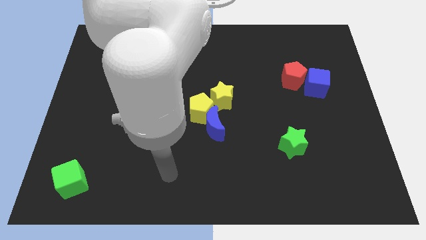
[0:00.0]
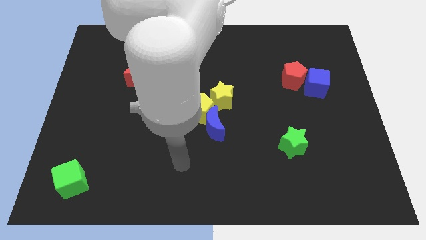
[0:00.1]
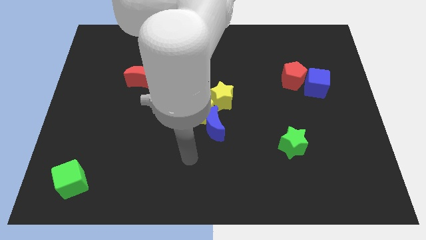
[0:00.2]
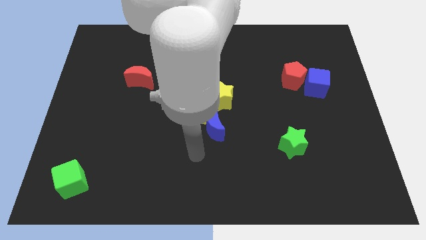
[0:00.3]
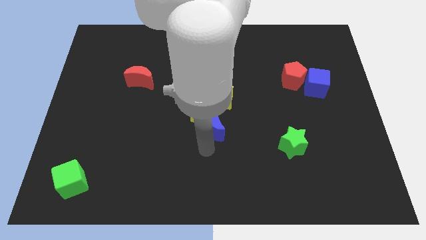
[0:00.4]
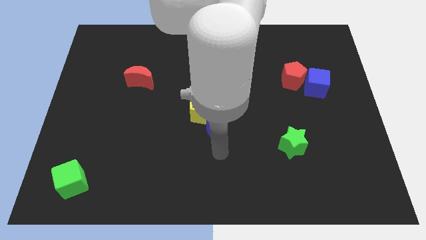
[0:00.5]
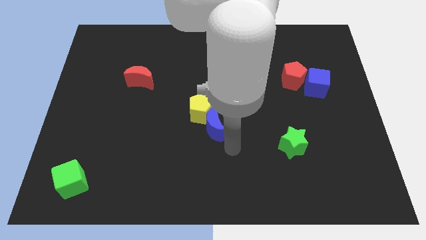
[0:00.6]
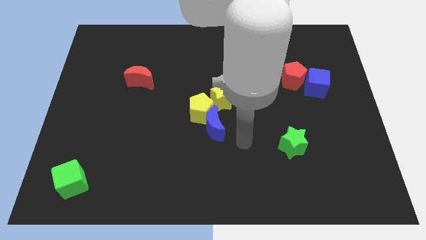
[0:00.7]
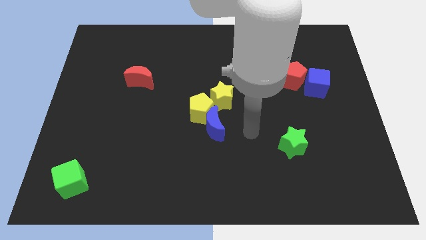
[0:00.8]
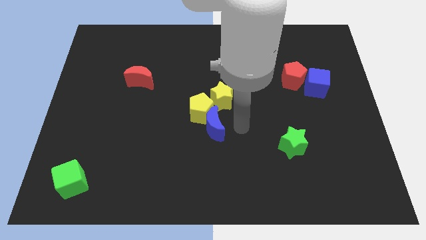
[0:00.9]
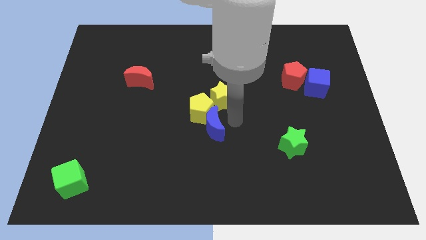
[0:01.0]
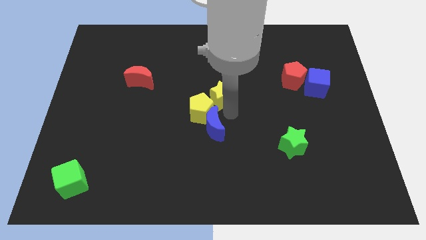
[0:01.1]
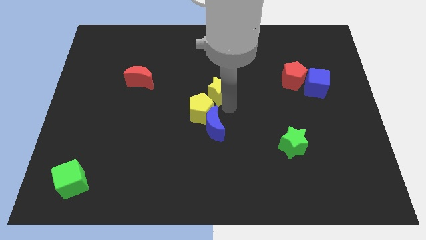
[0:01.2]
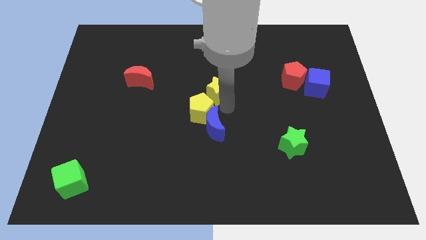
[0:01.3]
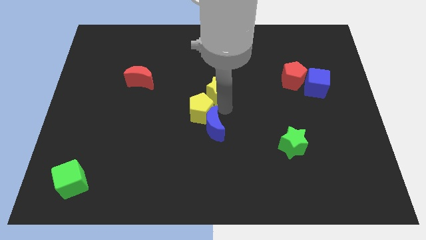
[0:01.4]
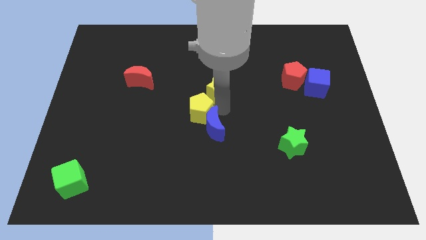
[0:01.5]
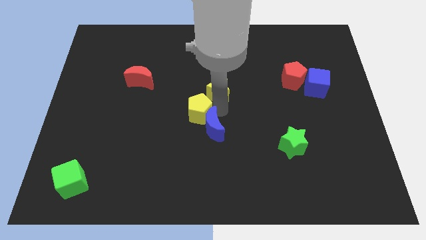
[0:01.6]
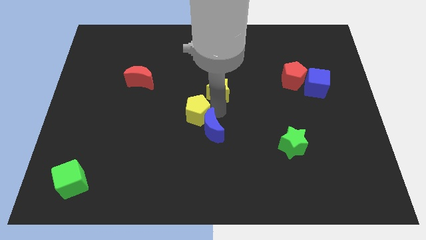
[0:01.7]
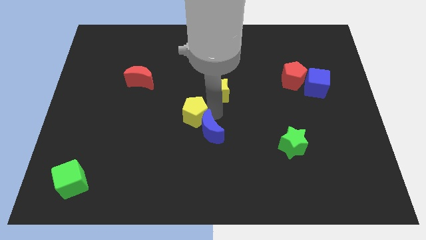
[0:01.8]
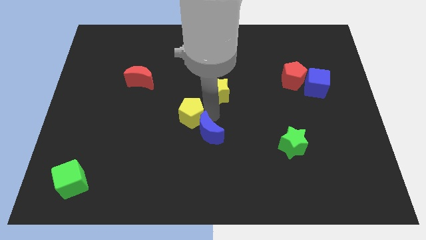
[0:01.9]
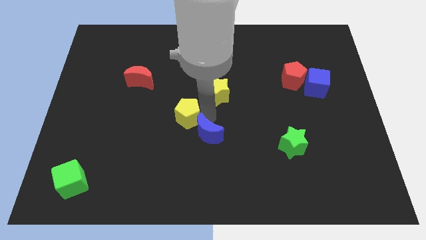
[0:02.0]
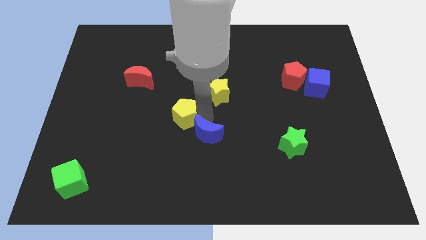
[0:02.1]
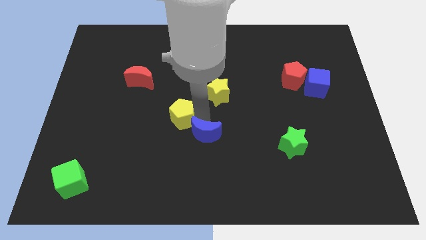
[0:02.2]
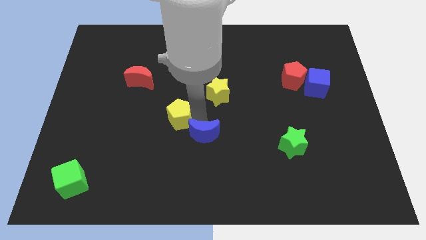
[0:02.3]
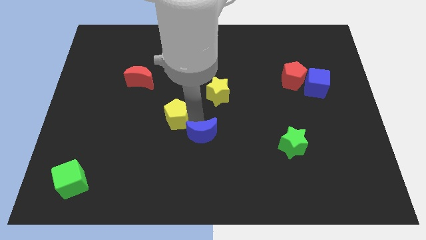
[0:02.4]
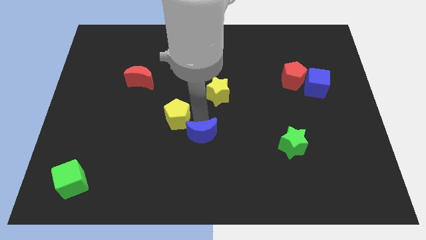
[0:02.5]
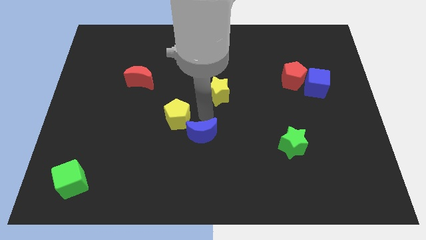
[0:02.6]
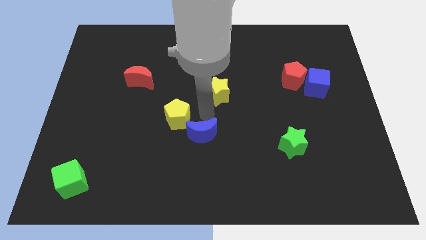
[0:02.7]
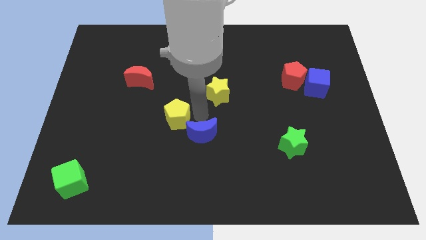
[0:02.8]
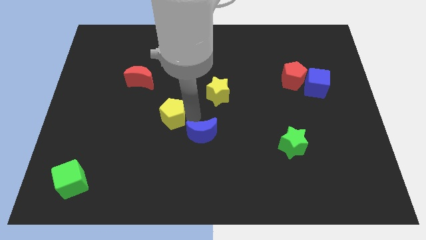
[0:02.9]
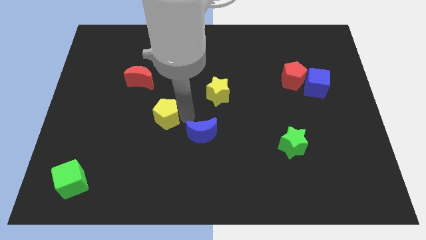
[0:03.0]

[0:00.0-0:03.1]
move the yellow pentagon away from the blue moon and yellow star

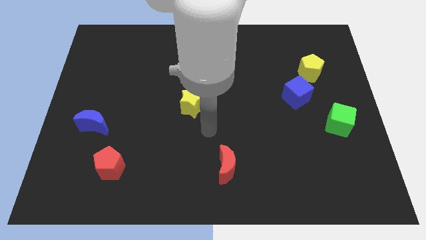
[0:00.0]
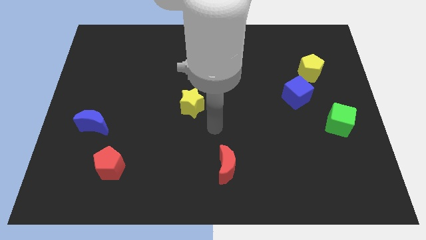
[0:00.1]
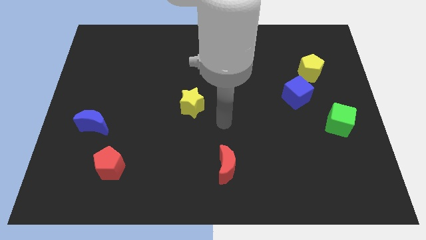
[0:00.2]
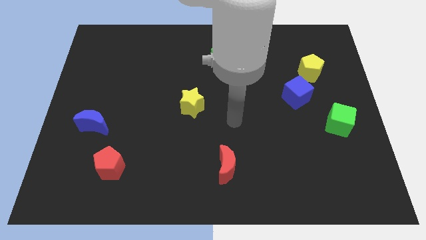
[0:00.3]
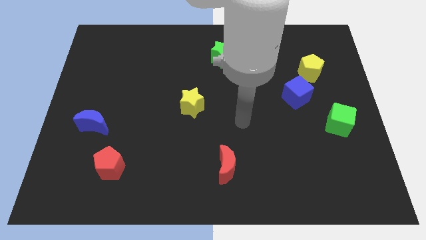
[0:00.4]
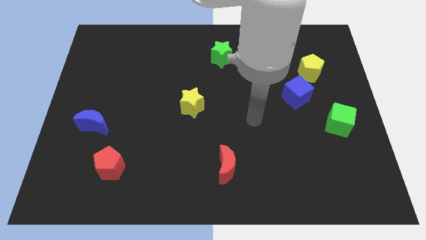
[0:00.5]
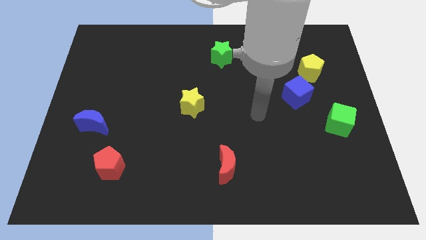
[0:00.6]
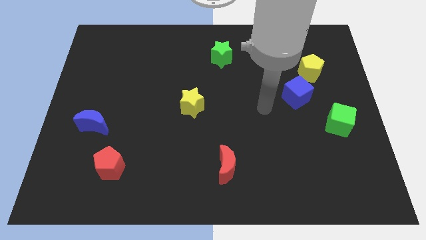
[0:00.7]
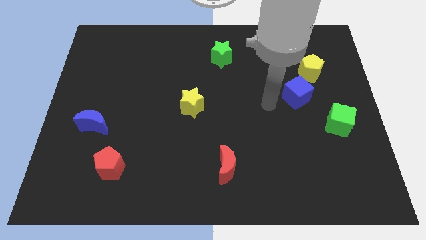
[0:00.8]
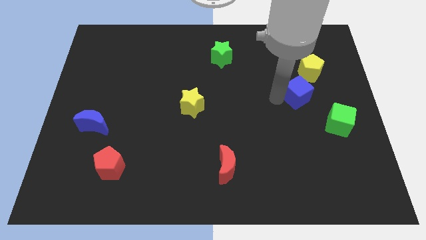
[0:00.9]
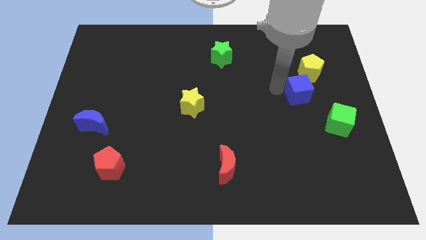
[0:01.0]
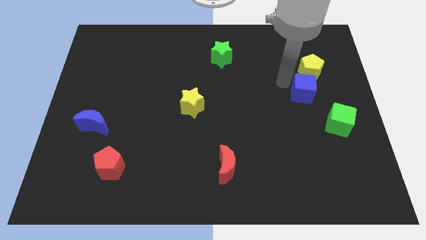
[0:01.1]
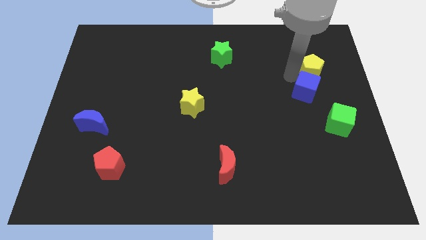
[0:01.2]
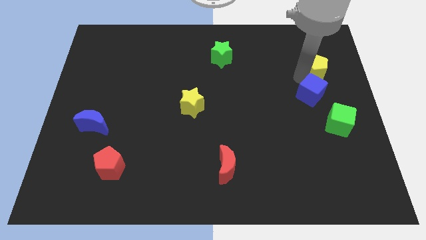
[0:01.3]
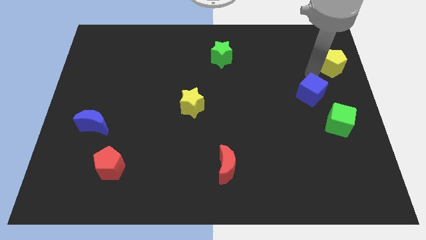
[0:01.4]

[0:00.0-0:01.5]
pull the blue cube apart from the yellow pentagon

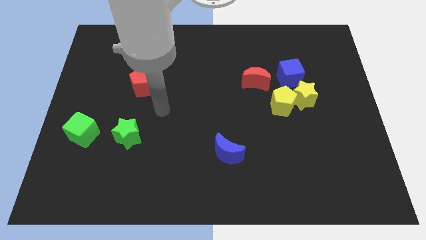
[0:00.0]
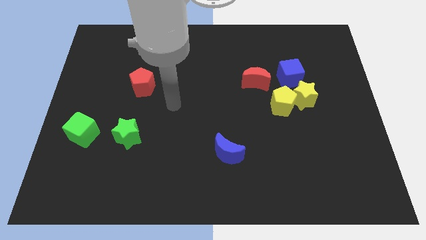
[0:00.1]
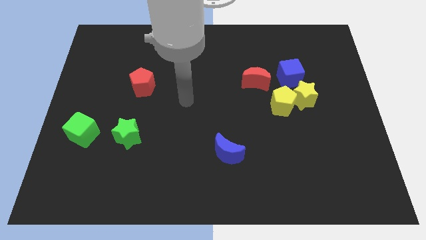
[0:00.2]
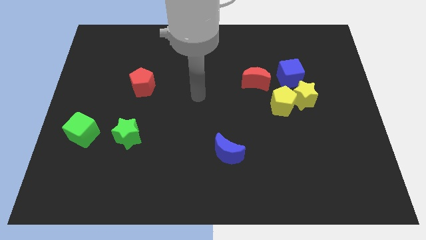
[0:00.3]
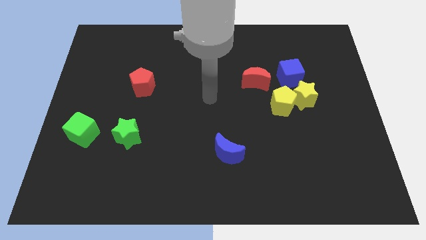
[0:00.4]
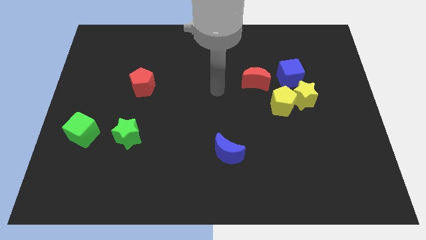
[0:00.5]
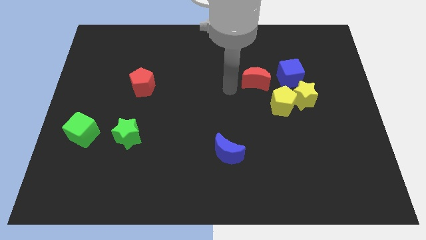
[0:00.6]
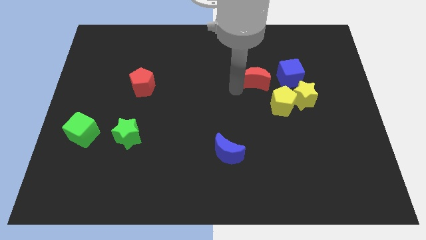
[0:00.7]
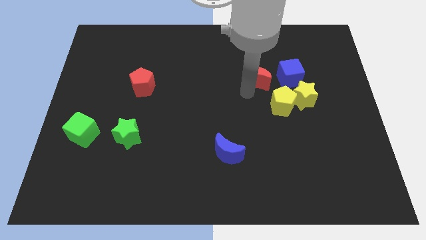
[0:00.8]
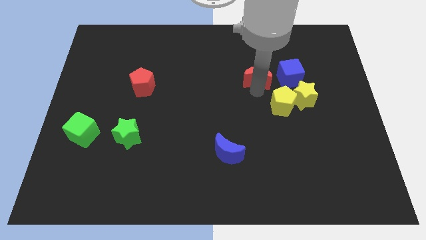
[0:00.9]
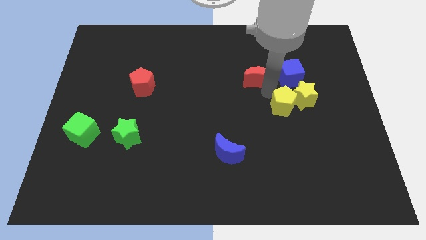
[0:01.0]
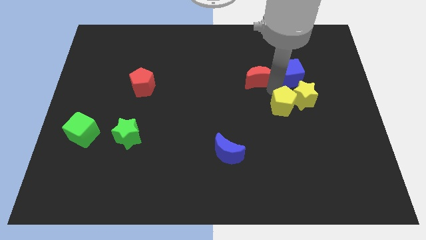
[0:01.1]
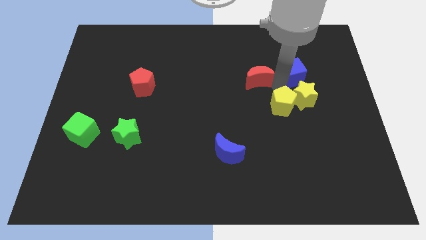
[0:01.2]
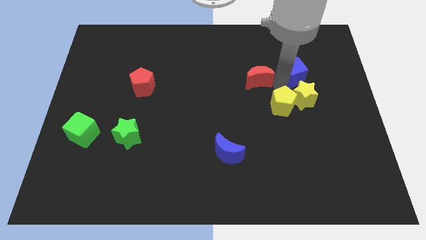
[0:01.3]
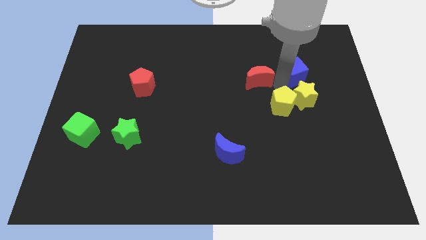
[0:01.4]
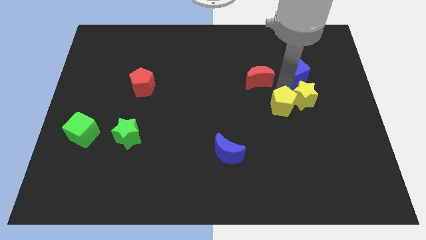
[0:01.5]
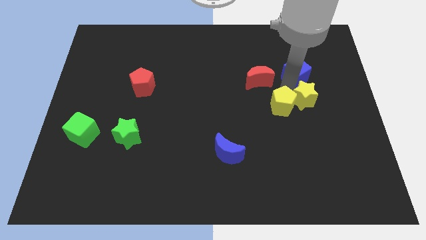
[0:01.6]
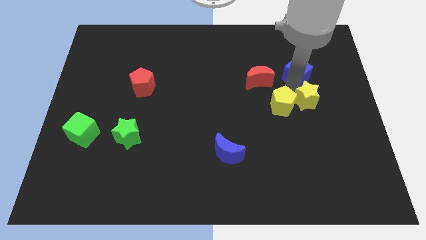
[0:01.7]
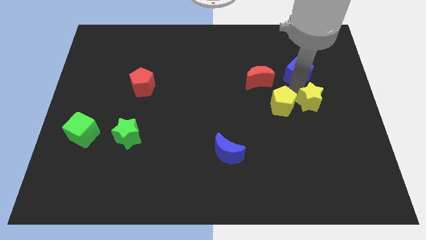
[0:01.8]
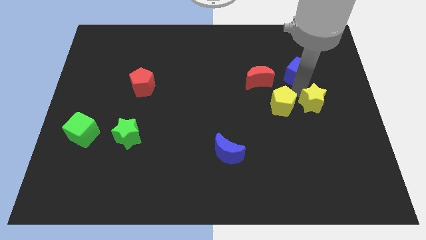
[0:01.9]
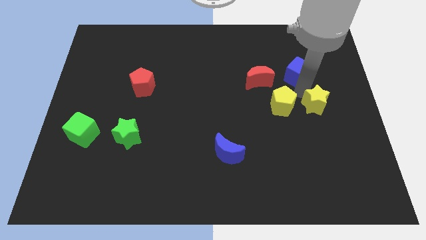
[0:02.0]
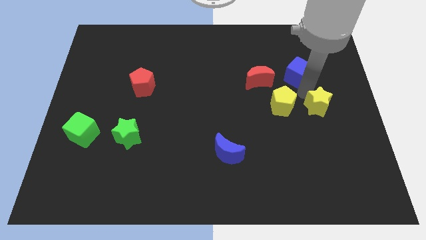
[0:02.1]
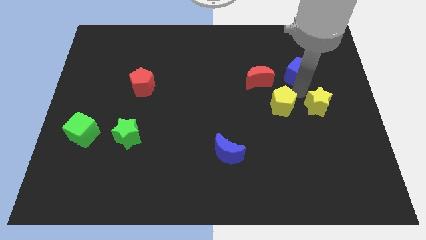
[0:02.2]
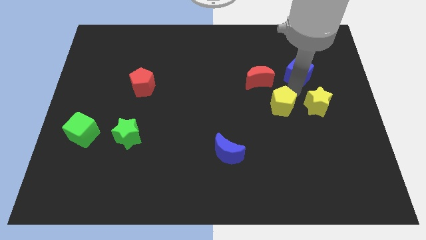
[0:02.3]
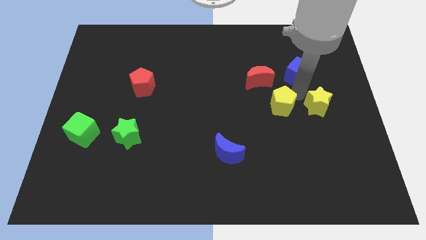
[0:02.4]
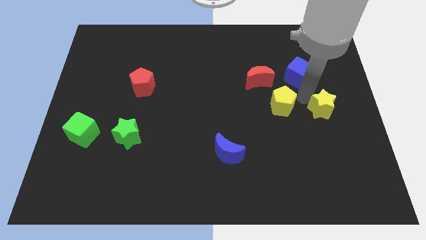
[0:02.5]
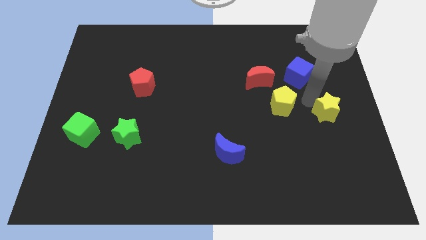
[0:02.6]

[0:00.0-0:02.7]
separate the yellow star from the yellow pentagon and blue cube

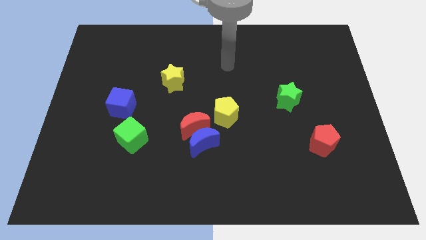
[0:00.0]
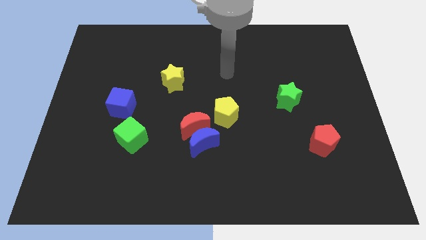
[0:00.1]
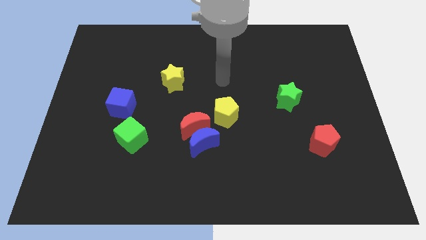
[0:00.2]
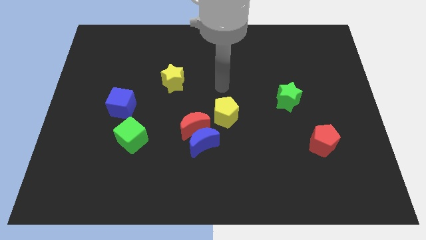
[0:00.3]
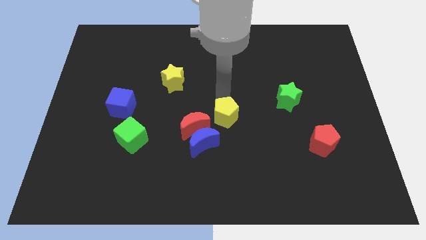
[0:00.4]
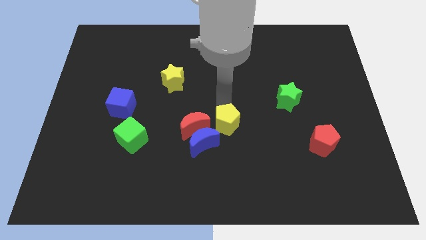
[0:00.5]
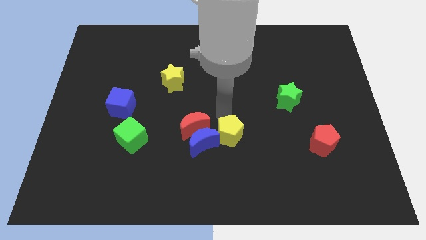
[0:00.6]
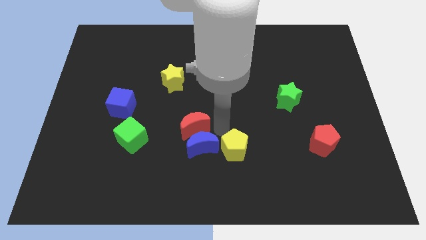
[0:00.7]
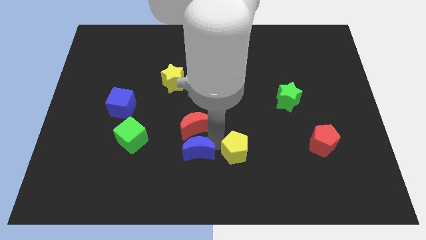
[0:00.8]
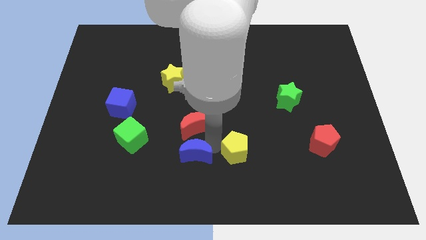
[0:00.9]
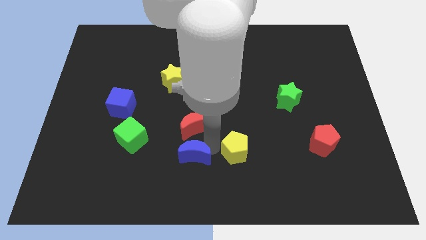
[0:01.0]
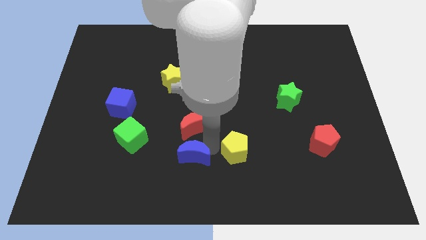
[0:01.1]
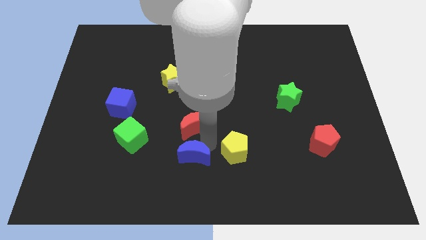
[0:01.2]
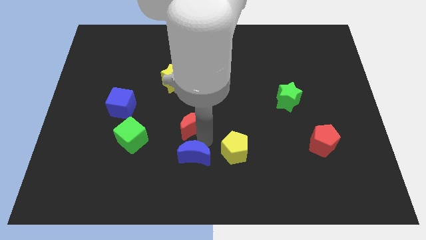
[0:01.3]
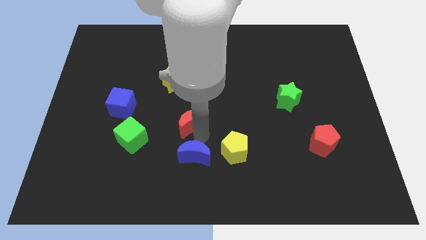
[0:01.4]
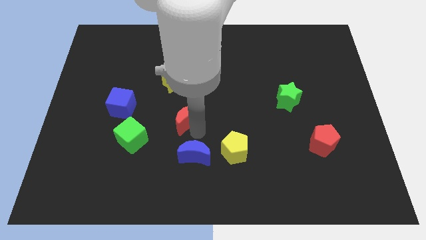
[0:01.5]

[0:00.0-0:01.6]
separate the red moon from the blue moon and yellow pentagon

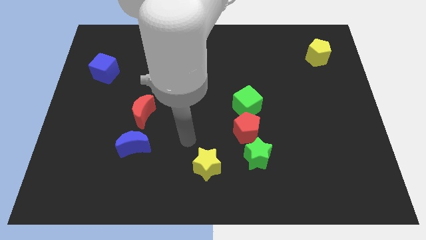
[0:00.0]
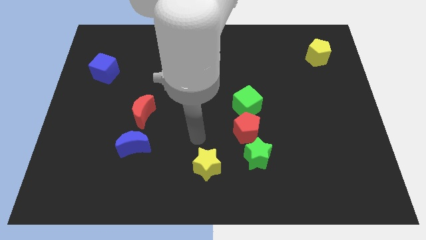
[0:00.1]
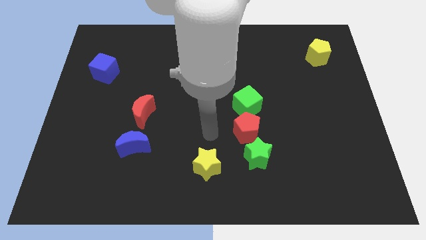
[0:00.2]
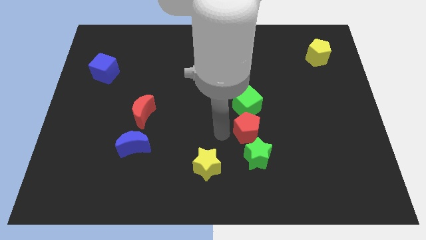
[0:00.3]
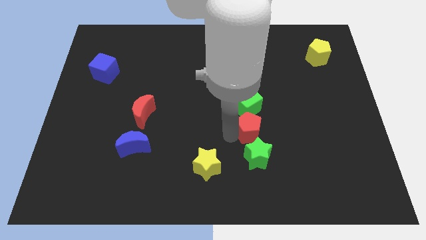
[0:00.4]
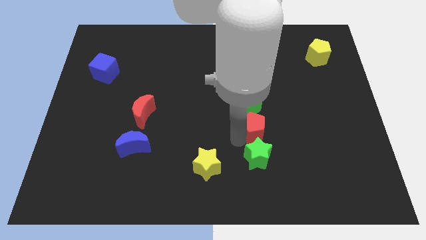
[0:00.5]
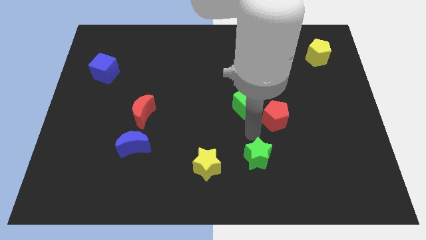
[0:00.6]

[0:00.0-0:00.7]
separate the green star from the red pentagon
